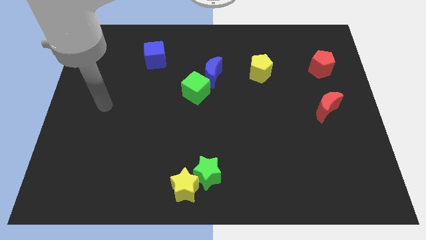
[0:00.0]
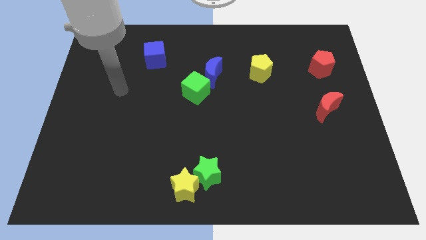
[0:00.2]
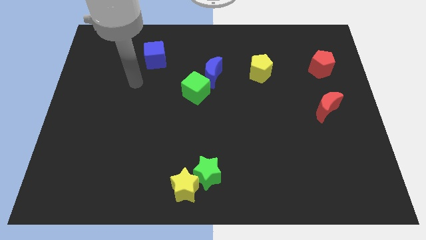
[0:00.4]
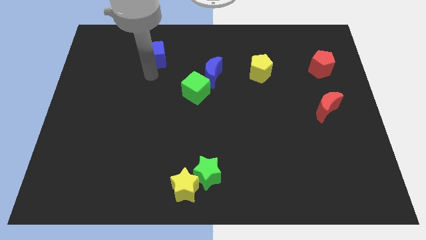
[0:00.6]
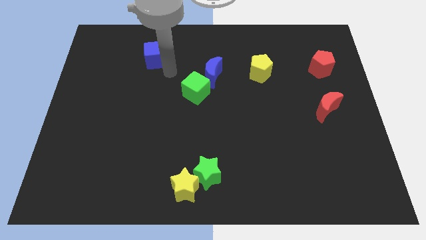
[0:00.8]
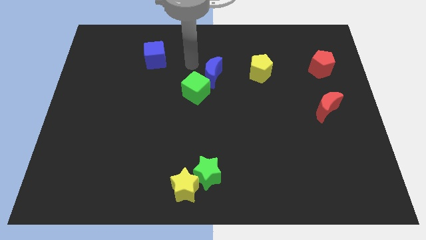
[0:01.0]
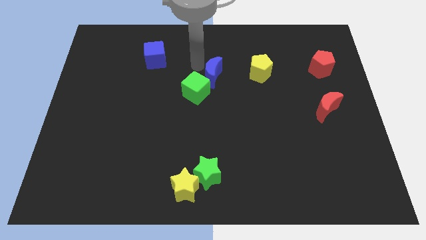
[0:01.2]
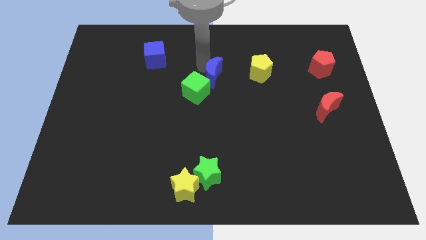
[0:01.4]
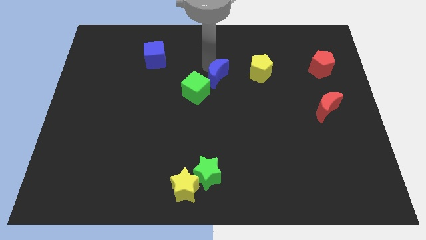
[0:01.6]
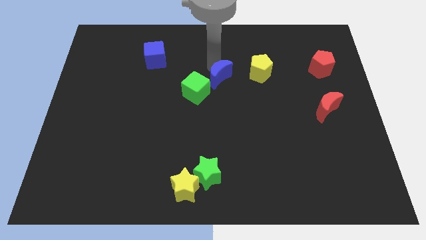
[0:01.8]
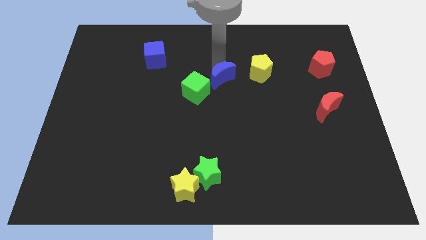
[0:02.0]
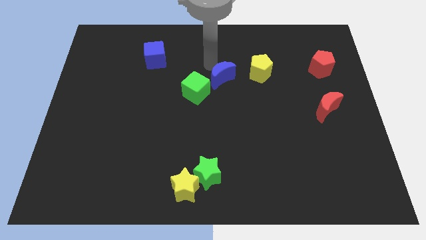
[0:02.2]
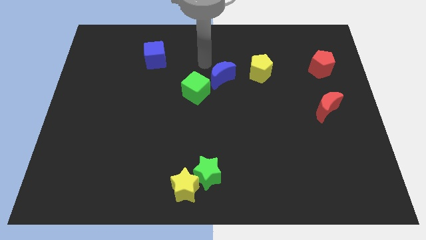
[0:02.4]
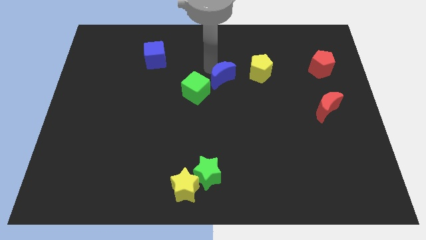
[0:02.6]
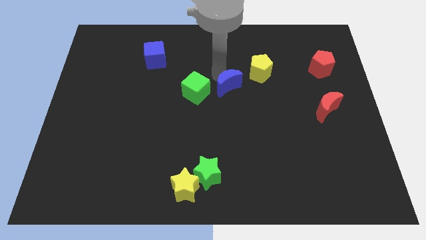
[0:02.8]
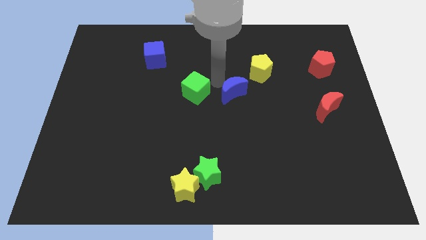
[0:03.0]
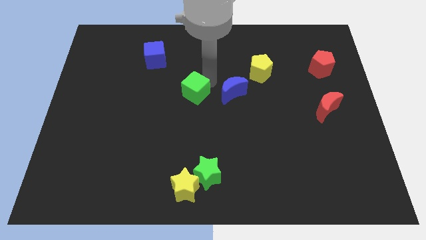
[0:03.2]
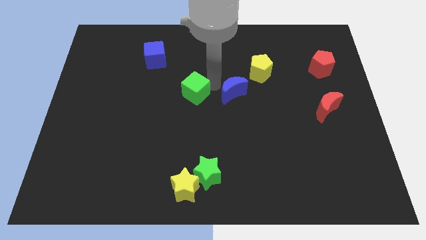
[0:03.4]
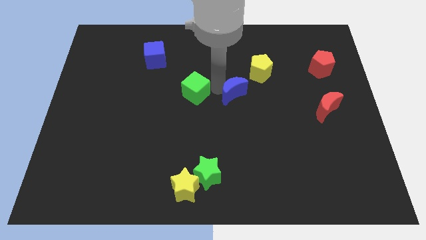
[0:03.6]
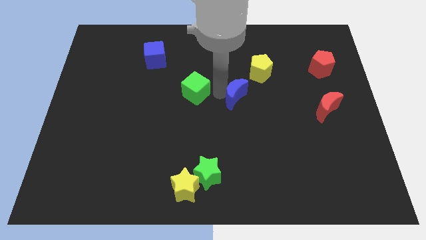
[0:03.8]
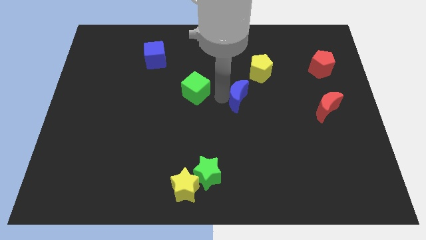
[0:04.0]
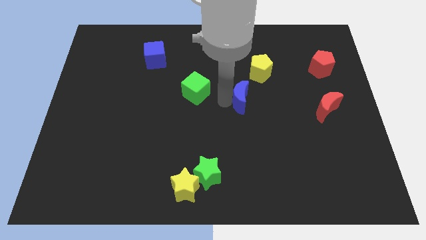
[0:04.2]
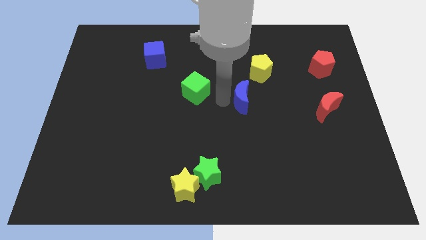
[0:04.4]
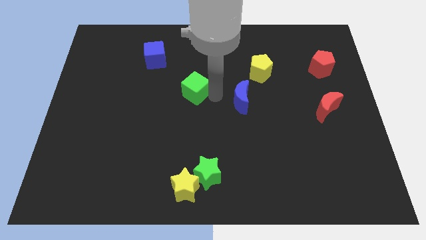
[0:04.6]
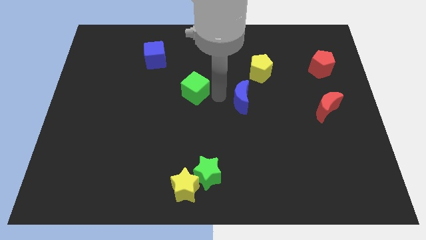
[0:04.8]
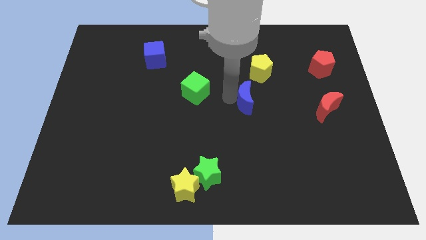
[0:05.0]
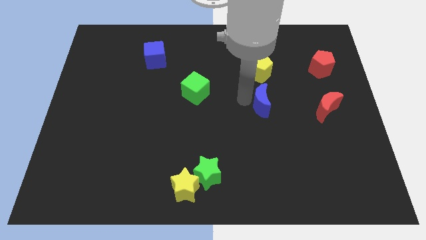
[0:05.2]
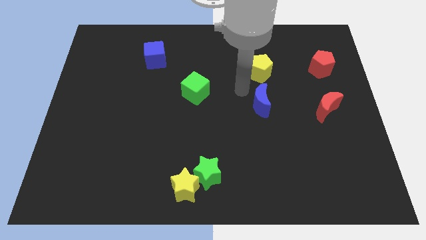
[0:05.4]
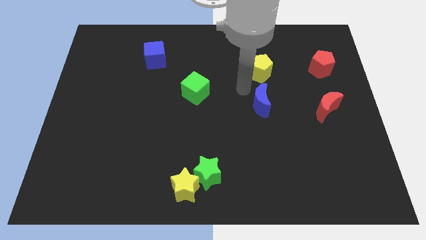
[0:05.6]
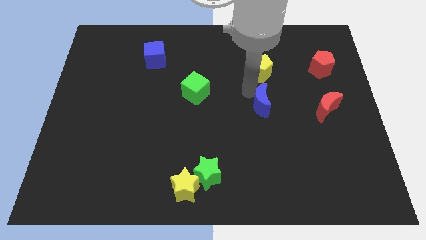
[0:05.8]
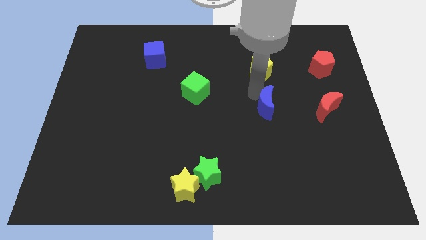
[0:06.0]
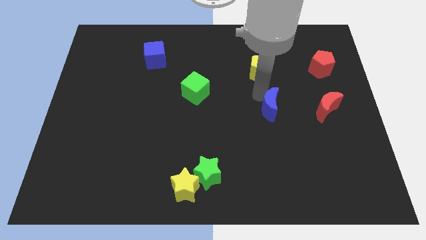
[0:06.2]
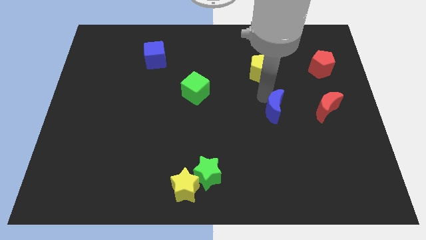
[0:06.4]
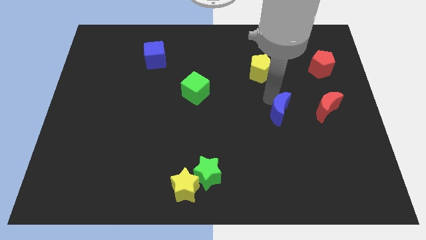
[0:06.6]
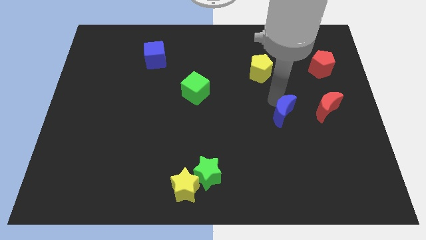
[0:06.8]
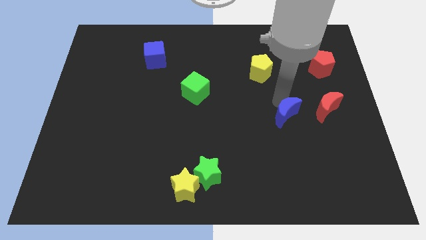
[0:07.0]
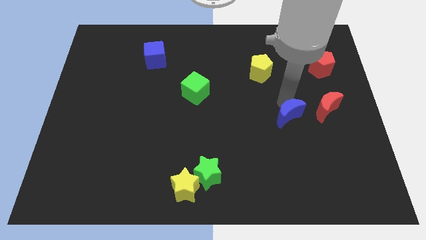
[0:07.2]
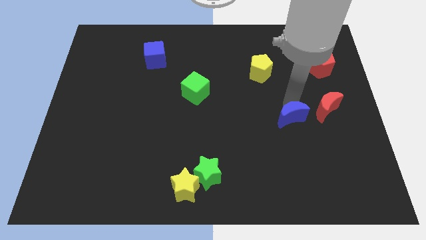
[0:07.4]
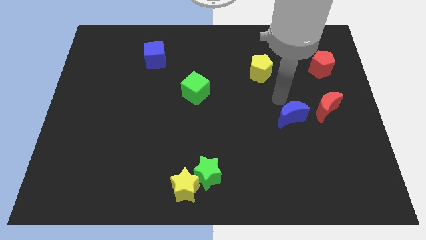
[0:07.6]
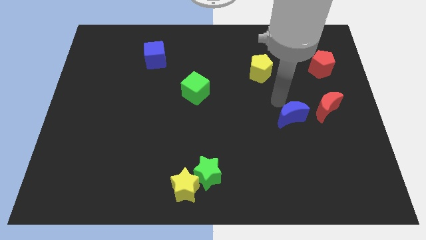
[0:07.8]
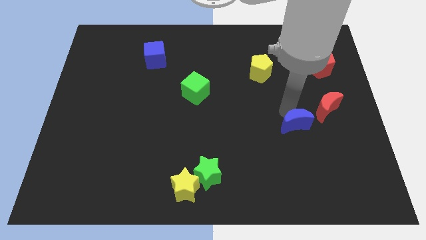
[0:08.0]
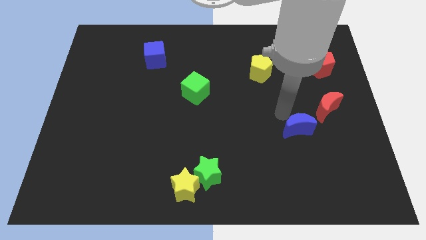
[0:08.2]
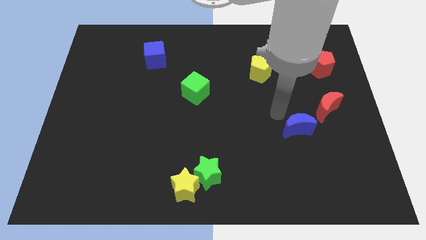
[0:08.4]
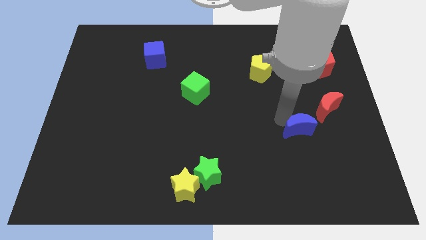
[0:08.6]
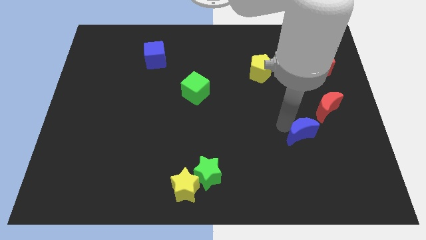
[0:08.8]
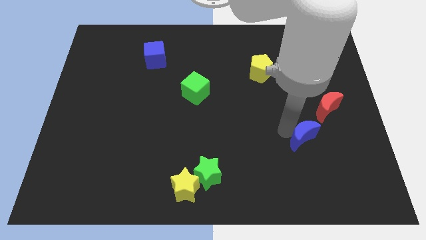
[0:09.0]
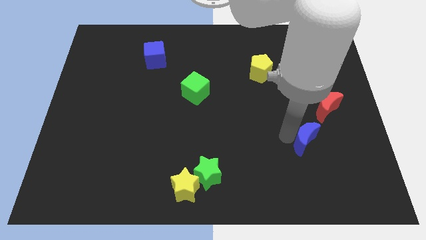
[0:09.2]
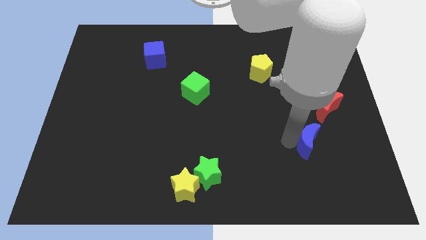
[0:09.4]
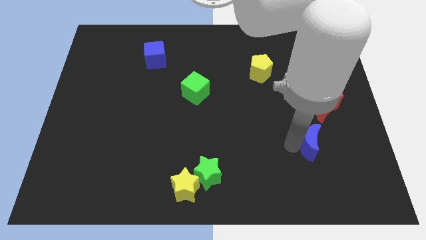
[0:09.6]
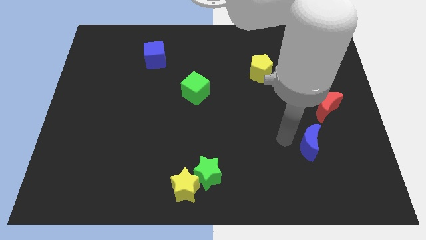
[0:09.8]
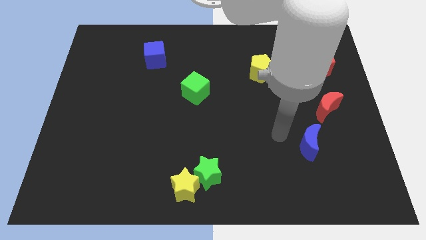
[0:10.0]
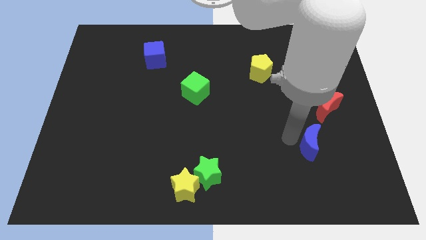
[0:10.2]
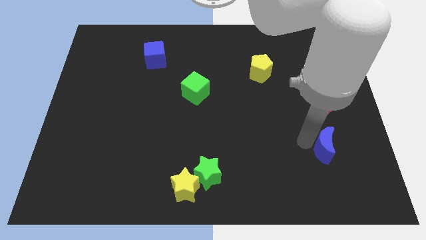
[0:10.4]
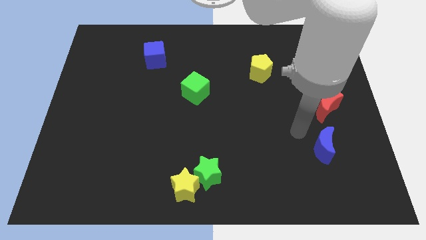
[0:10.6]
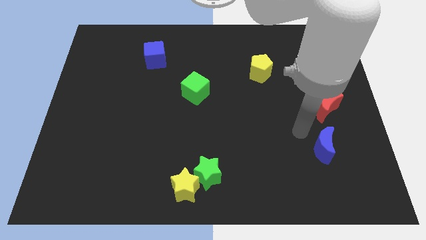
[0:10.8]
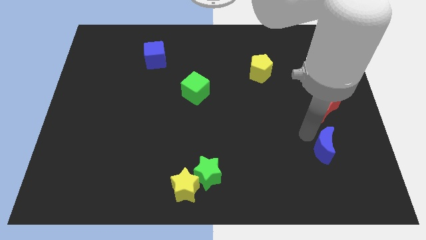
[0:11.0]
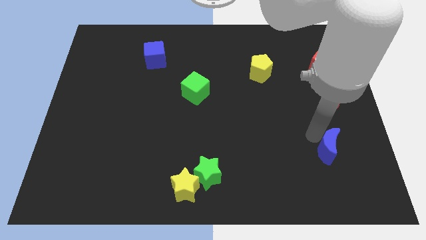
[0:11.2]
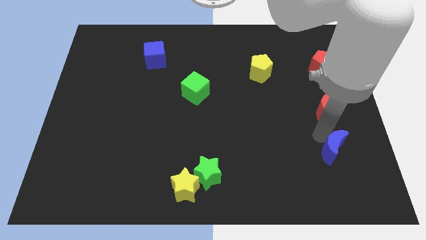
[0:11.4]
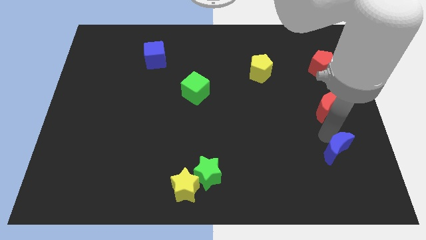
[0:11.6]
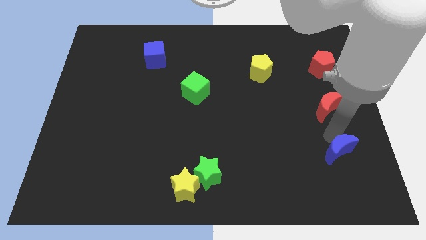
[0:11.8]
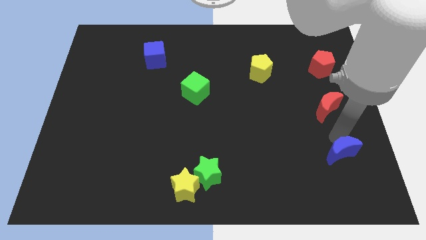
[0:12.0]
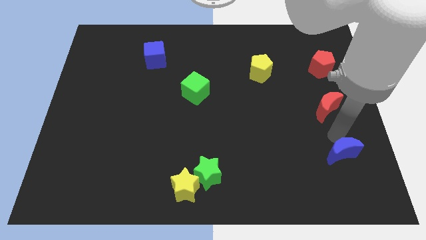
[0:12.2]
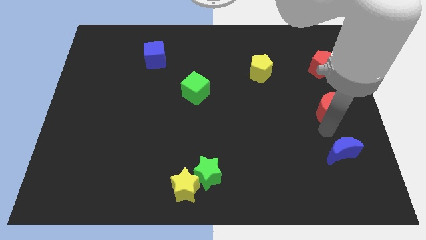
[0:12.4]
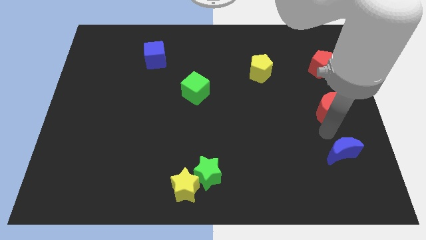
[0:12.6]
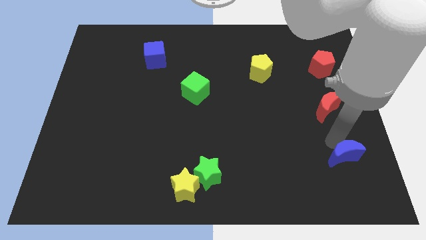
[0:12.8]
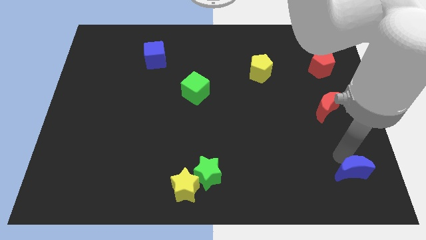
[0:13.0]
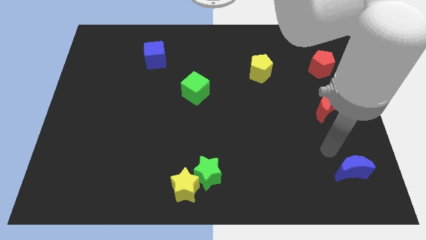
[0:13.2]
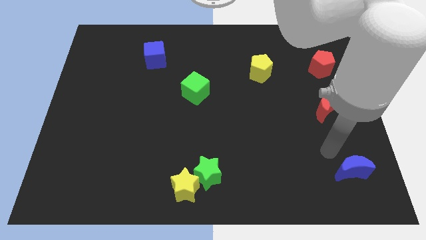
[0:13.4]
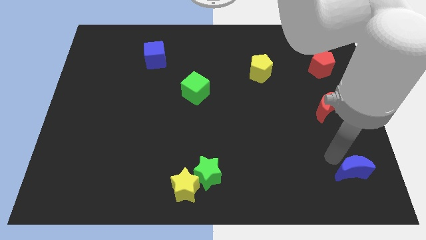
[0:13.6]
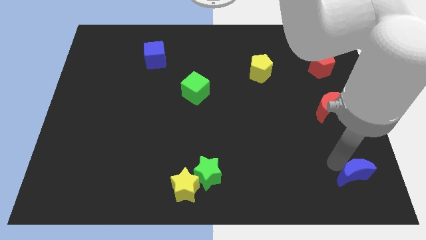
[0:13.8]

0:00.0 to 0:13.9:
put the blue moon to the lower right corner

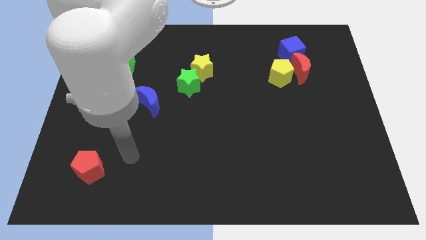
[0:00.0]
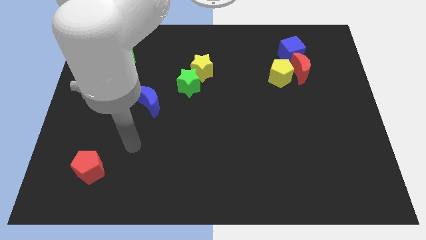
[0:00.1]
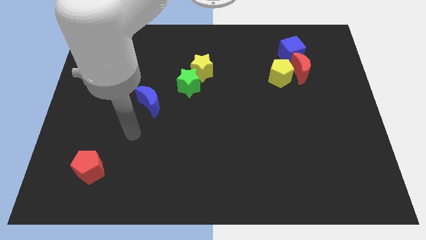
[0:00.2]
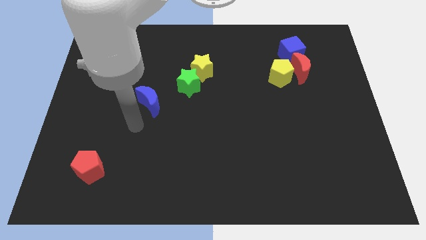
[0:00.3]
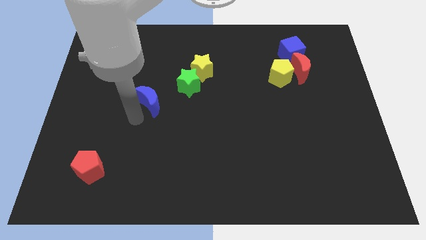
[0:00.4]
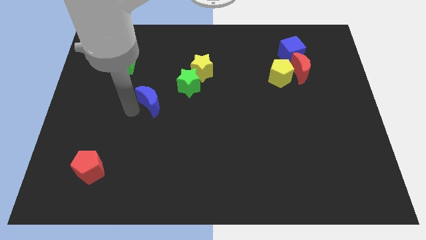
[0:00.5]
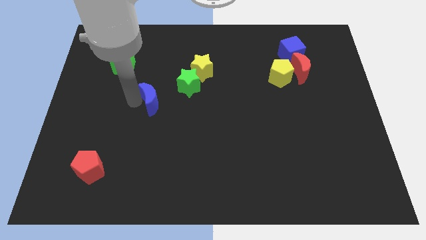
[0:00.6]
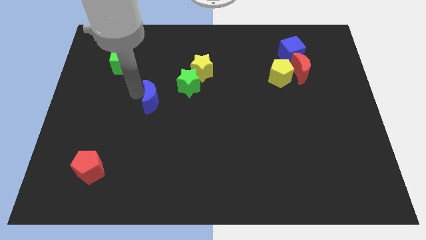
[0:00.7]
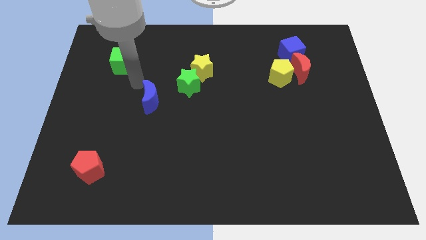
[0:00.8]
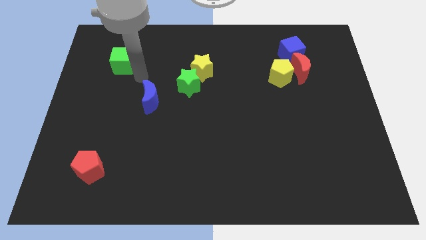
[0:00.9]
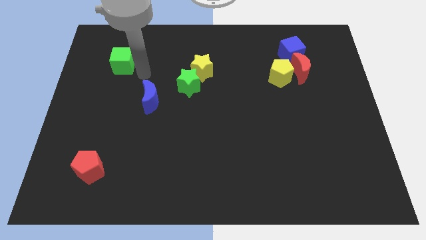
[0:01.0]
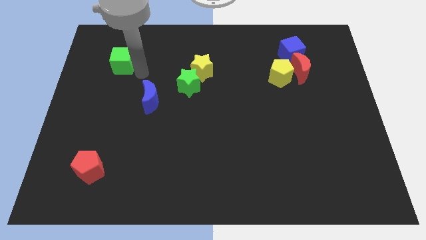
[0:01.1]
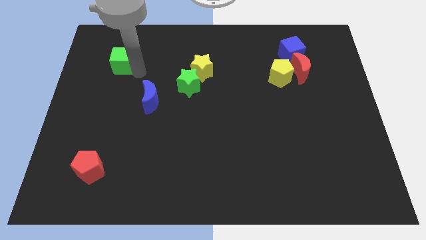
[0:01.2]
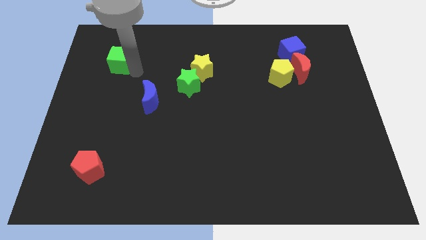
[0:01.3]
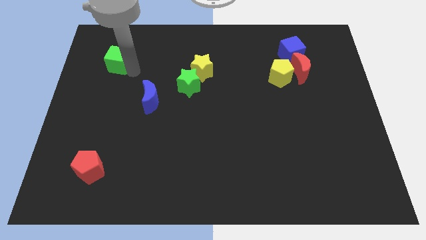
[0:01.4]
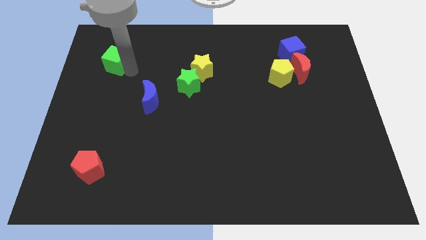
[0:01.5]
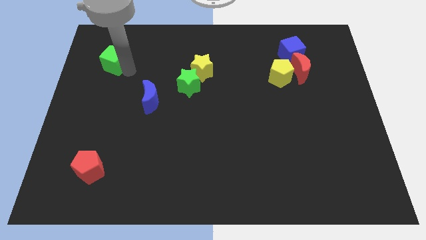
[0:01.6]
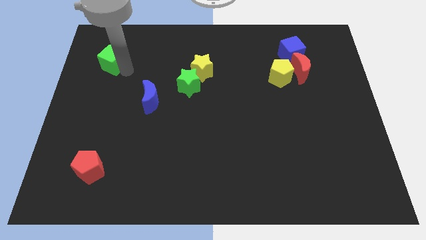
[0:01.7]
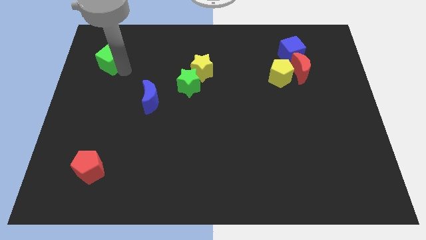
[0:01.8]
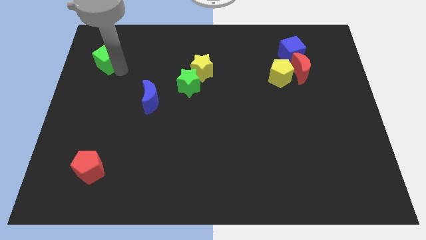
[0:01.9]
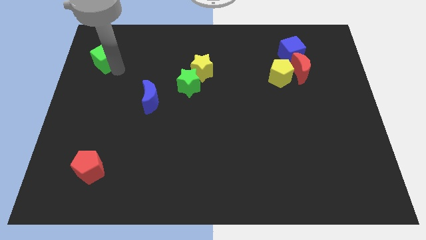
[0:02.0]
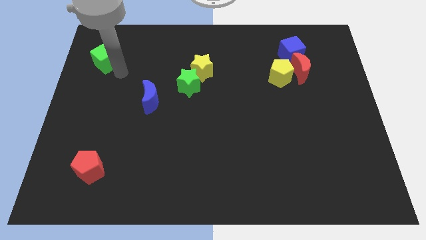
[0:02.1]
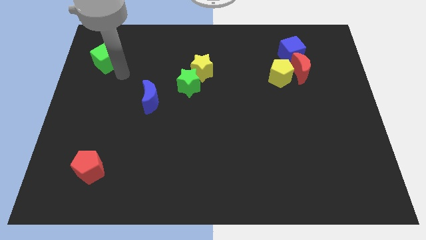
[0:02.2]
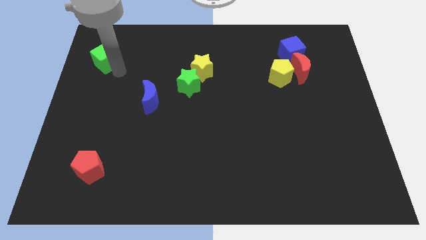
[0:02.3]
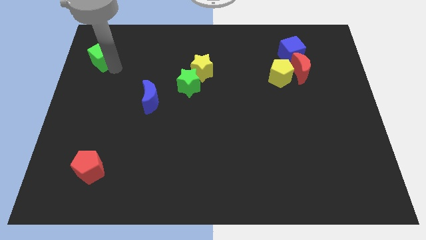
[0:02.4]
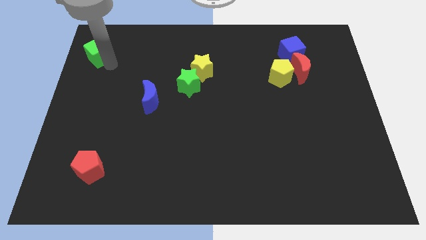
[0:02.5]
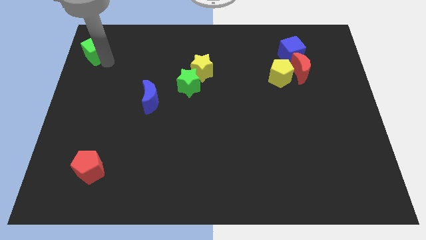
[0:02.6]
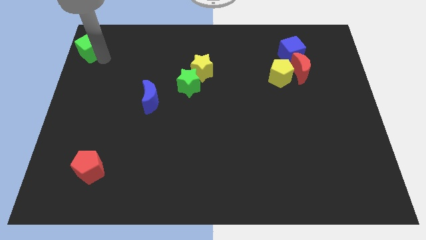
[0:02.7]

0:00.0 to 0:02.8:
move the green cube to the top left of the board
